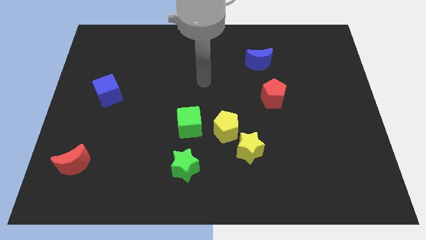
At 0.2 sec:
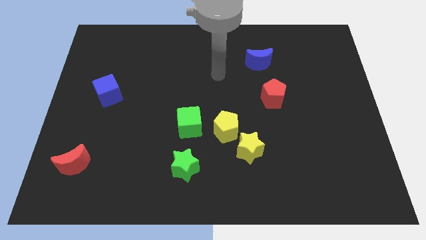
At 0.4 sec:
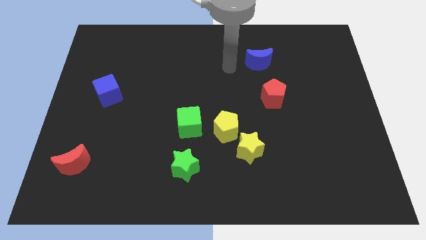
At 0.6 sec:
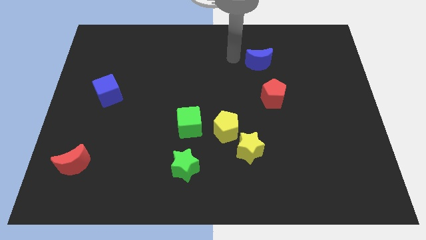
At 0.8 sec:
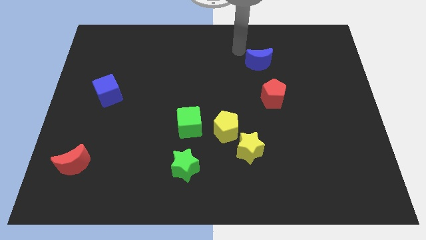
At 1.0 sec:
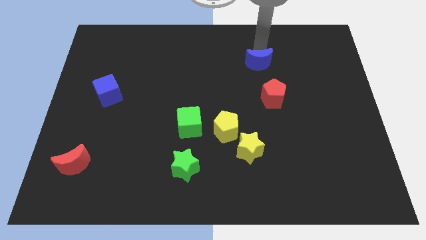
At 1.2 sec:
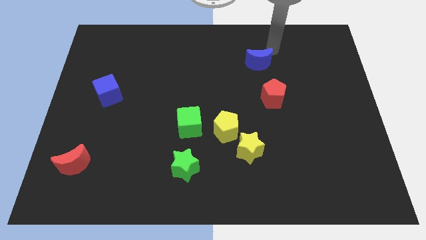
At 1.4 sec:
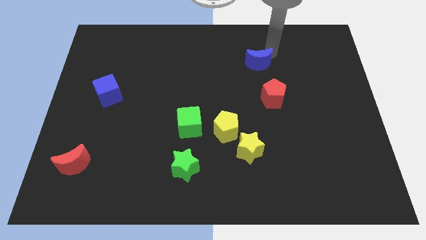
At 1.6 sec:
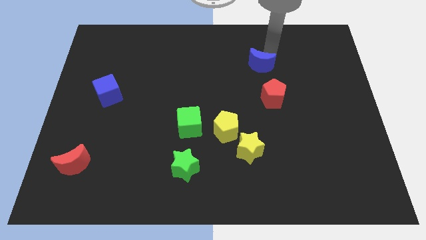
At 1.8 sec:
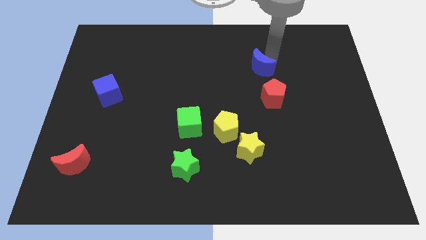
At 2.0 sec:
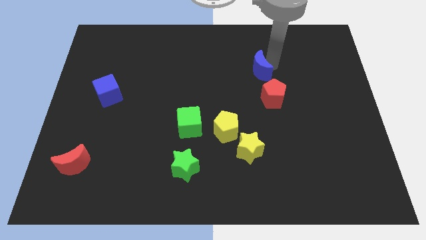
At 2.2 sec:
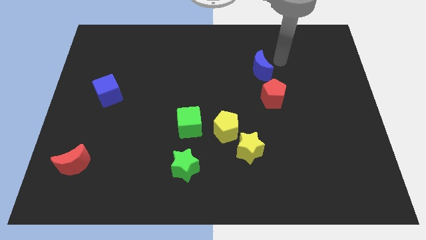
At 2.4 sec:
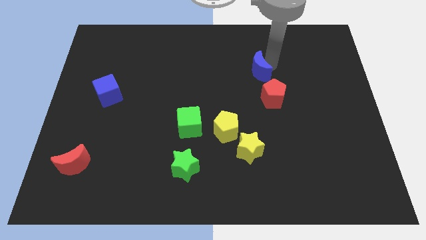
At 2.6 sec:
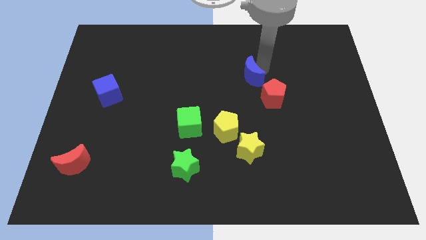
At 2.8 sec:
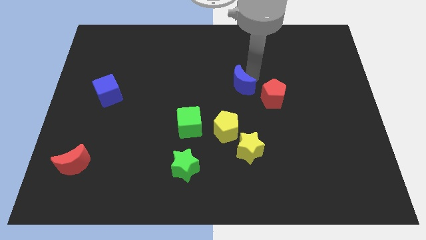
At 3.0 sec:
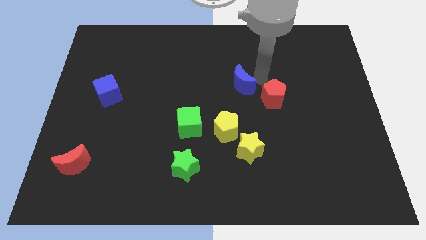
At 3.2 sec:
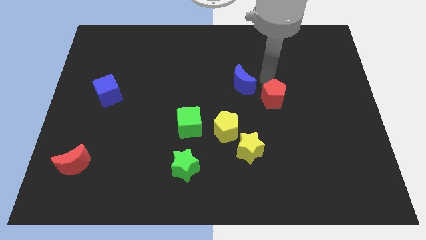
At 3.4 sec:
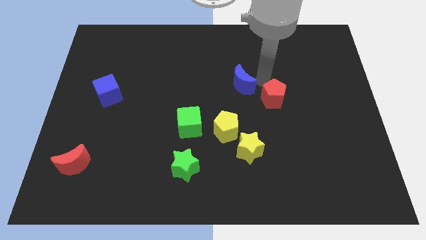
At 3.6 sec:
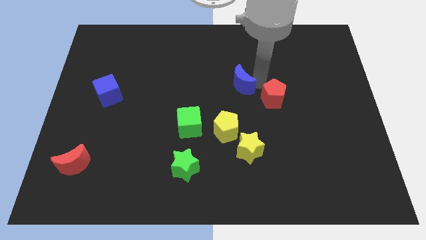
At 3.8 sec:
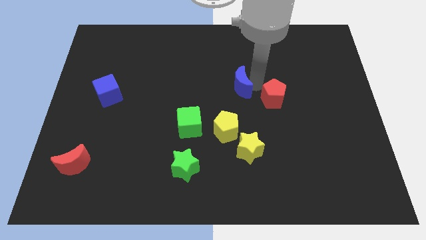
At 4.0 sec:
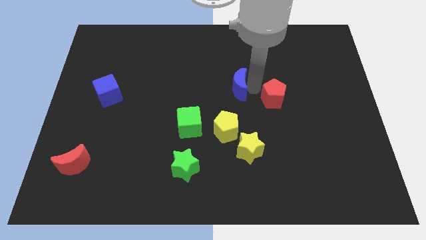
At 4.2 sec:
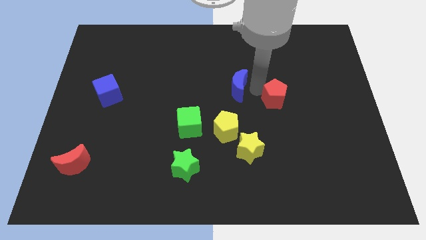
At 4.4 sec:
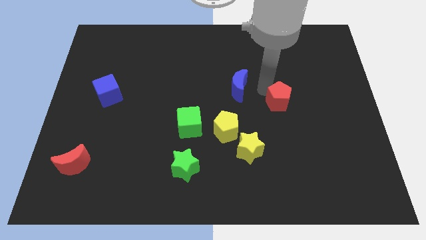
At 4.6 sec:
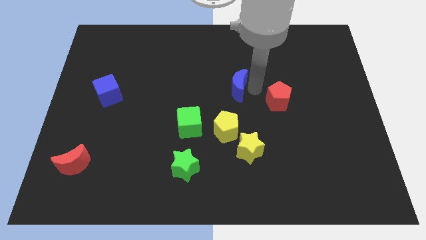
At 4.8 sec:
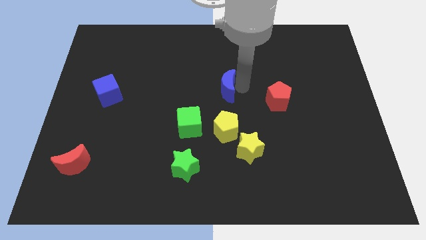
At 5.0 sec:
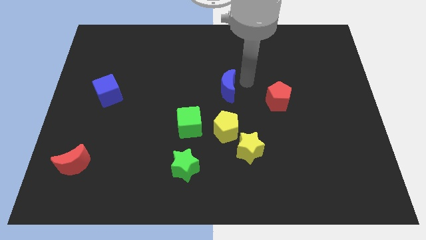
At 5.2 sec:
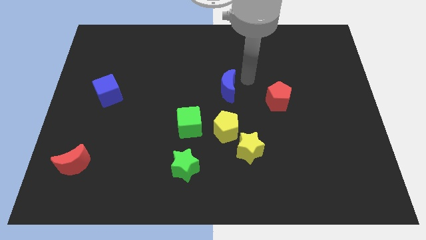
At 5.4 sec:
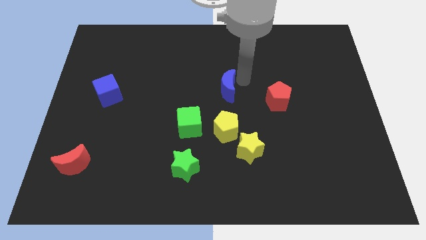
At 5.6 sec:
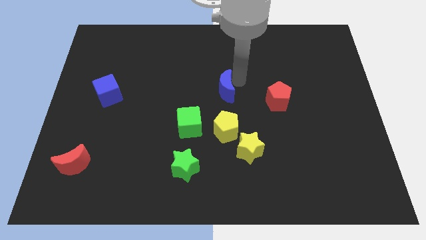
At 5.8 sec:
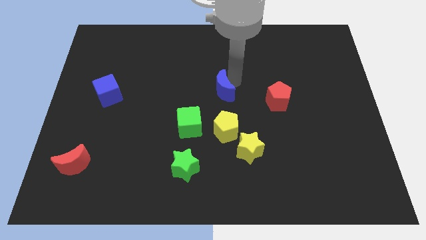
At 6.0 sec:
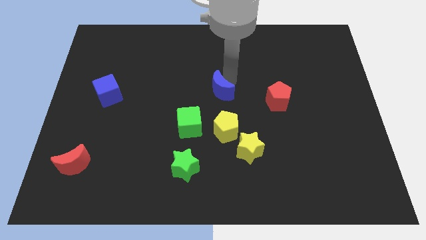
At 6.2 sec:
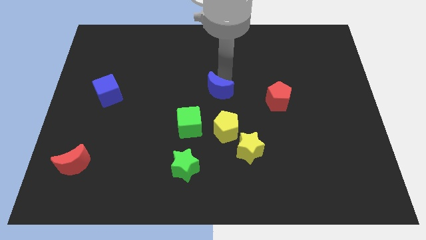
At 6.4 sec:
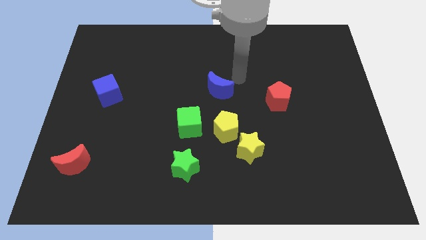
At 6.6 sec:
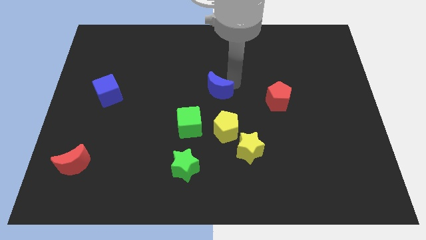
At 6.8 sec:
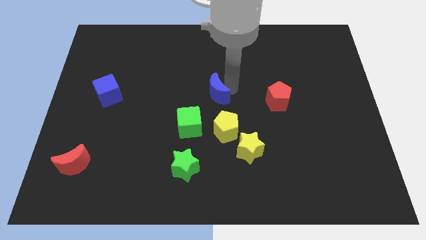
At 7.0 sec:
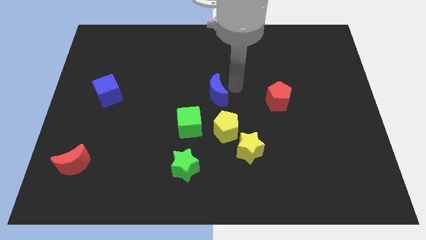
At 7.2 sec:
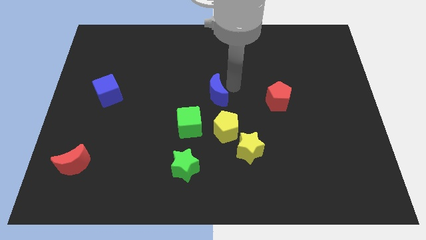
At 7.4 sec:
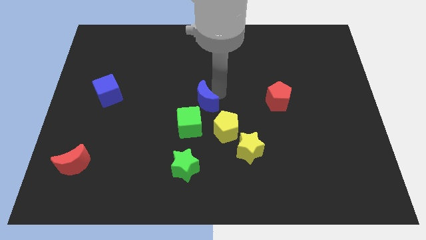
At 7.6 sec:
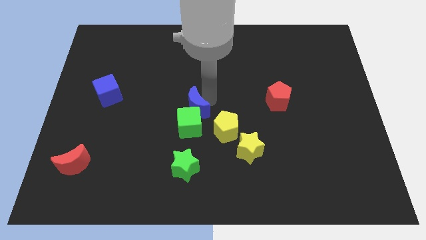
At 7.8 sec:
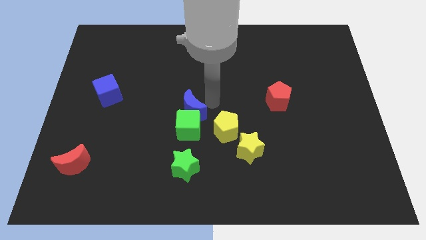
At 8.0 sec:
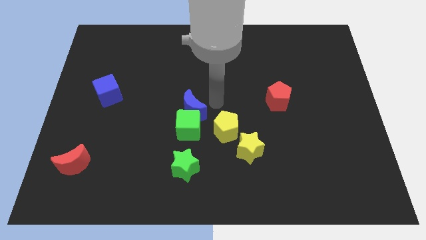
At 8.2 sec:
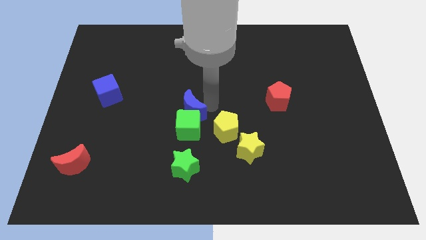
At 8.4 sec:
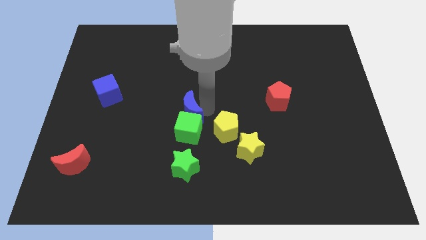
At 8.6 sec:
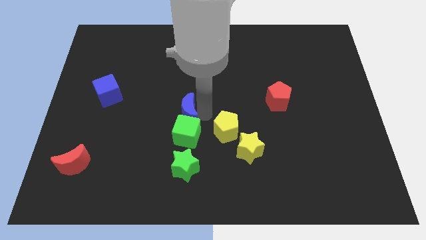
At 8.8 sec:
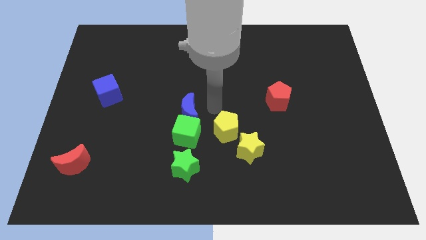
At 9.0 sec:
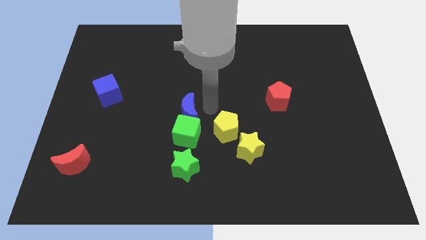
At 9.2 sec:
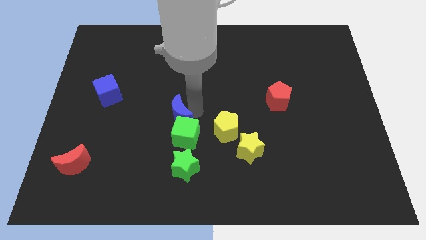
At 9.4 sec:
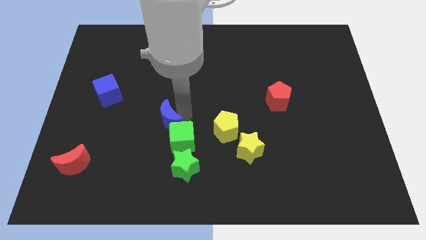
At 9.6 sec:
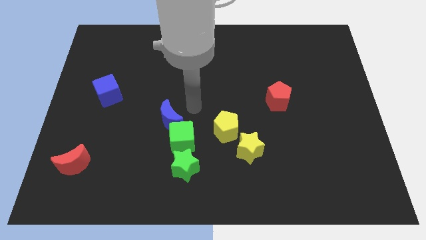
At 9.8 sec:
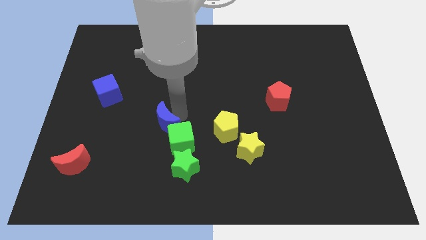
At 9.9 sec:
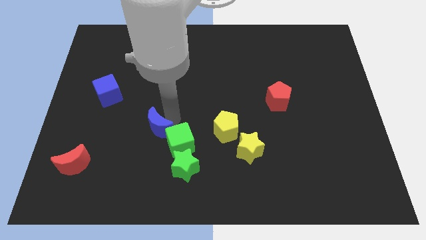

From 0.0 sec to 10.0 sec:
put the blue moon left of the green cube

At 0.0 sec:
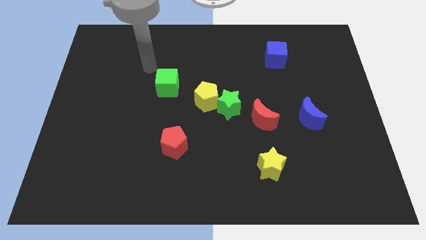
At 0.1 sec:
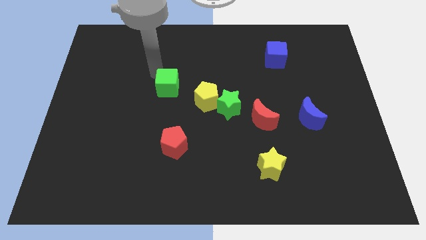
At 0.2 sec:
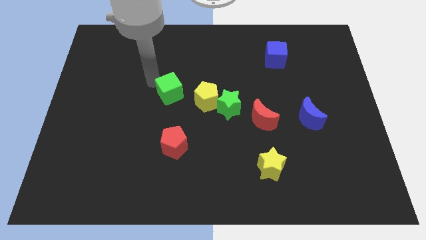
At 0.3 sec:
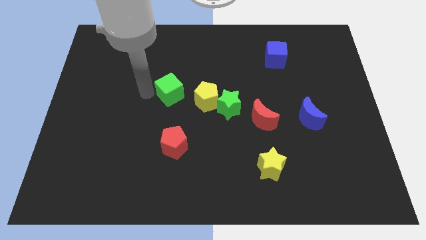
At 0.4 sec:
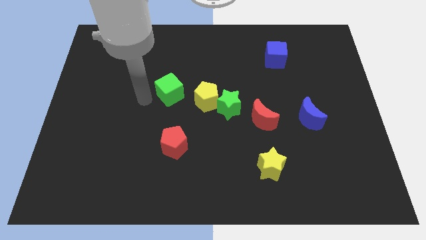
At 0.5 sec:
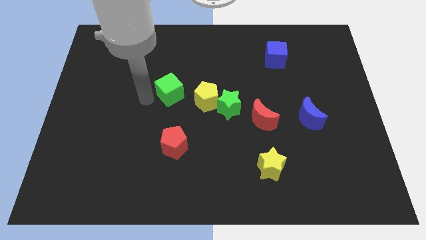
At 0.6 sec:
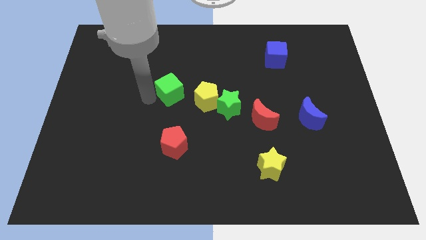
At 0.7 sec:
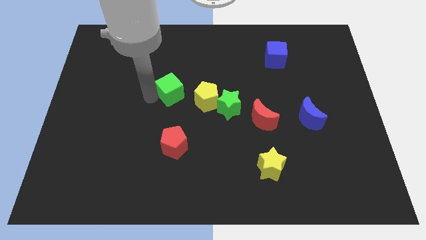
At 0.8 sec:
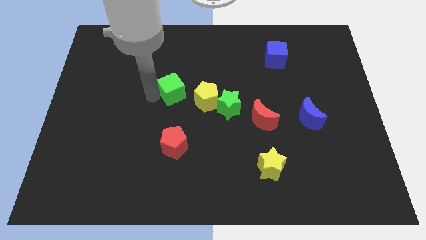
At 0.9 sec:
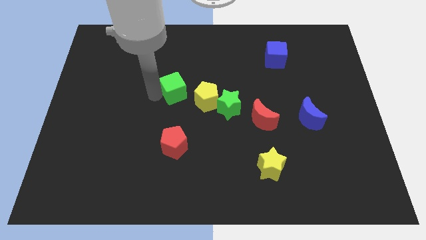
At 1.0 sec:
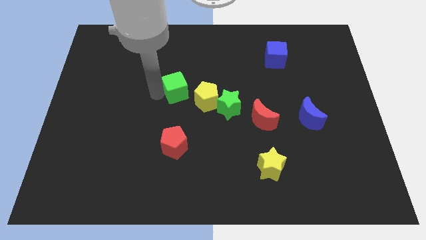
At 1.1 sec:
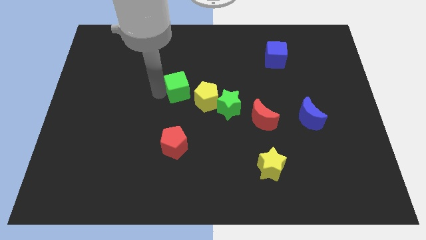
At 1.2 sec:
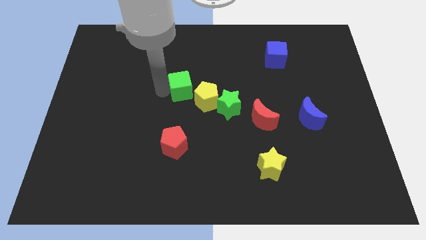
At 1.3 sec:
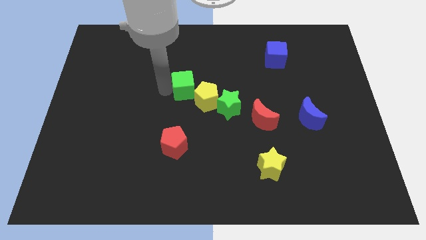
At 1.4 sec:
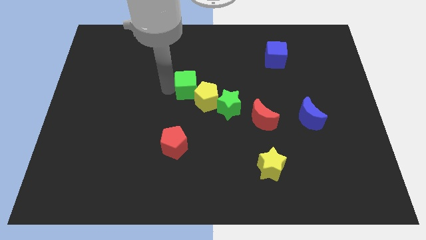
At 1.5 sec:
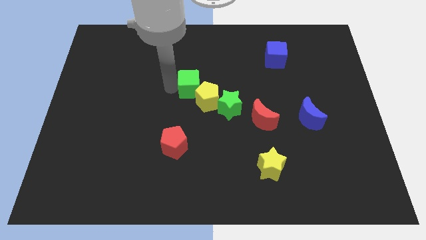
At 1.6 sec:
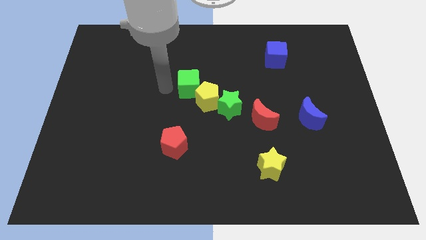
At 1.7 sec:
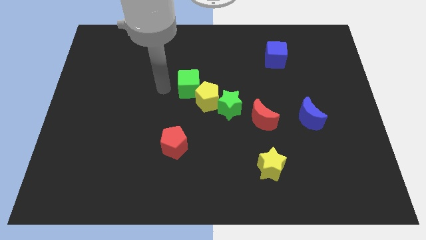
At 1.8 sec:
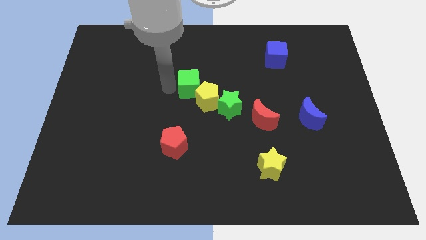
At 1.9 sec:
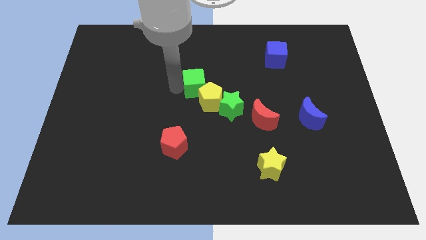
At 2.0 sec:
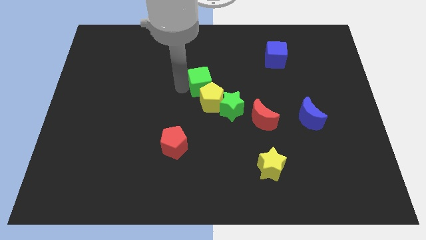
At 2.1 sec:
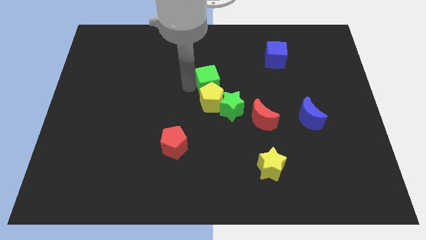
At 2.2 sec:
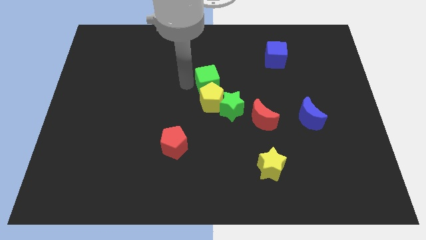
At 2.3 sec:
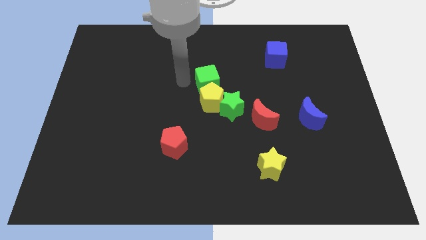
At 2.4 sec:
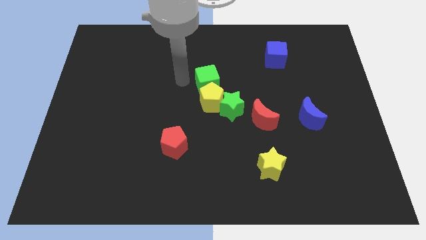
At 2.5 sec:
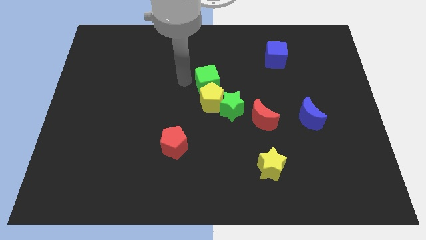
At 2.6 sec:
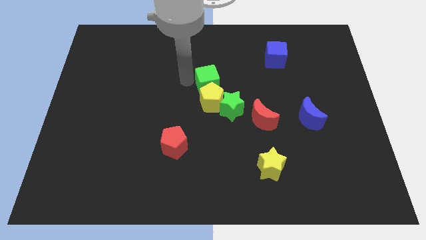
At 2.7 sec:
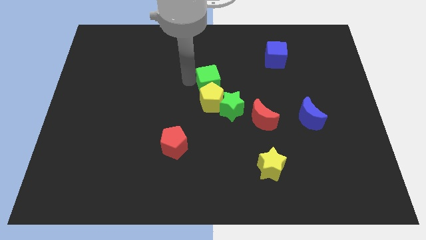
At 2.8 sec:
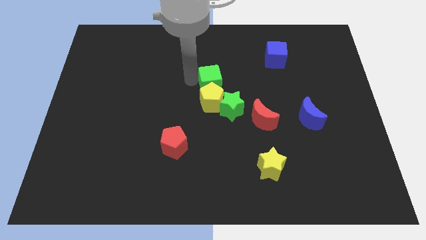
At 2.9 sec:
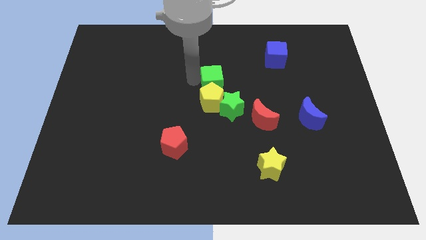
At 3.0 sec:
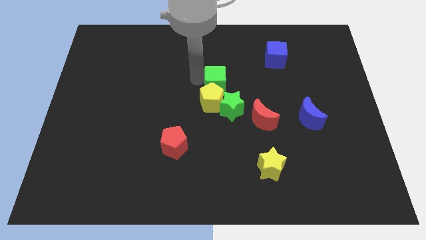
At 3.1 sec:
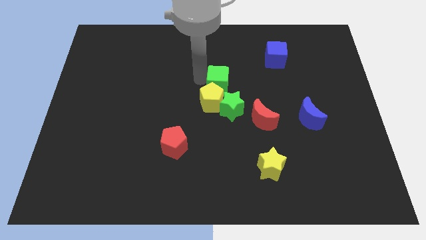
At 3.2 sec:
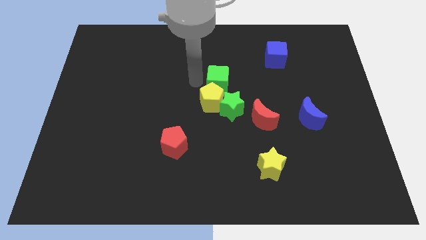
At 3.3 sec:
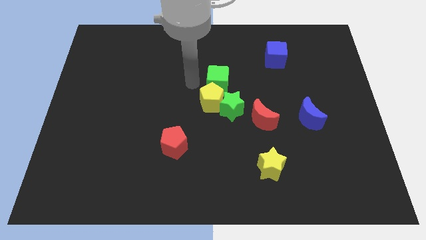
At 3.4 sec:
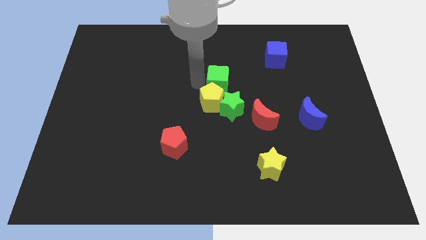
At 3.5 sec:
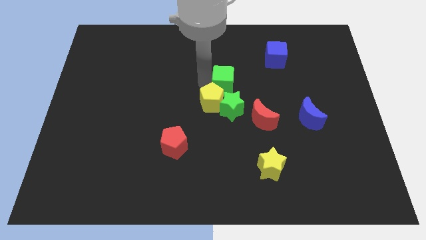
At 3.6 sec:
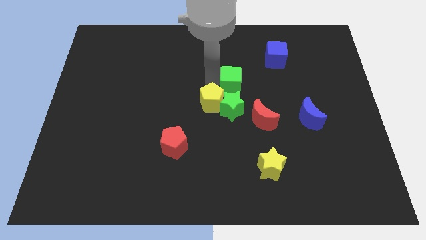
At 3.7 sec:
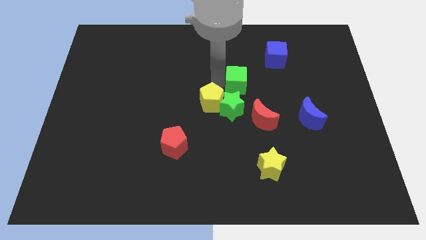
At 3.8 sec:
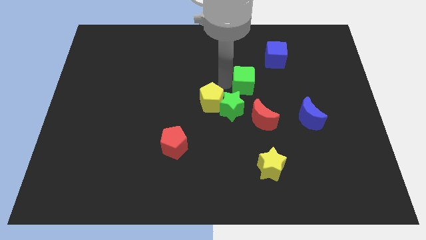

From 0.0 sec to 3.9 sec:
move the green cube to the top of the red moon
